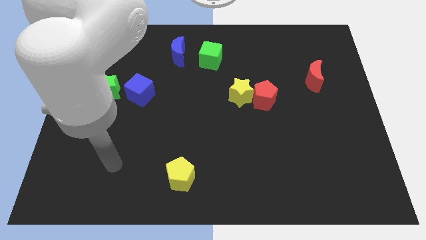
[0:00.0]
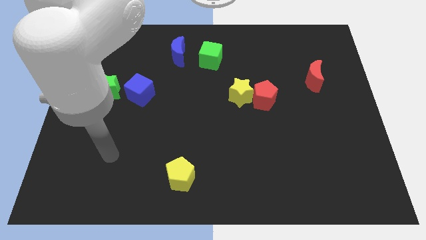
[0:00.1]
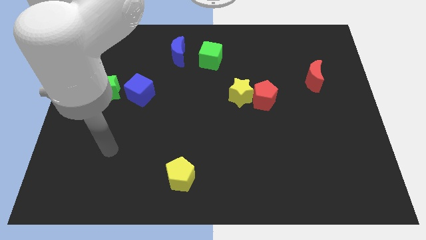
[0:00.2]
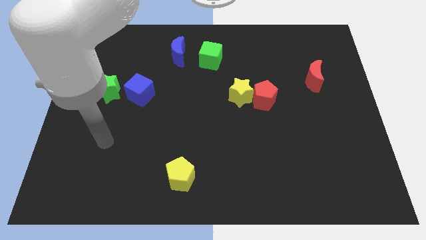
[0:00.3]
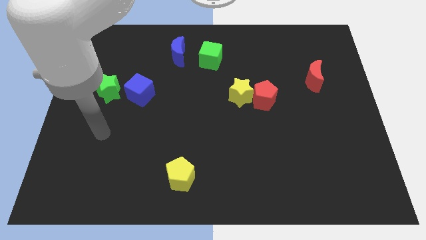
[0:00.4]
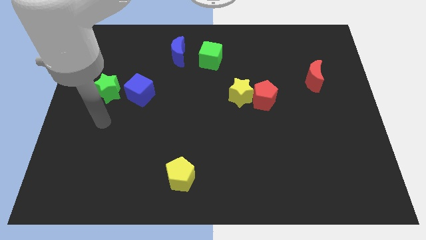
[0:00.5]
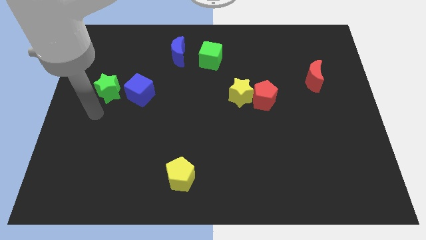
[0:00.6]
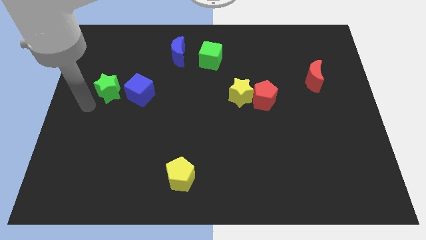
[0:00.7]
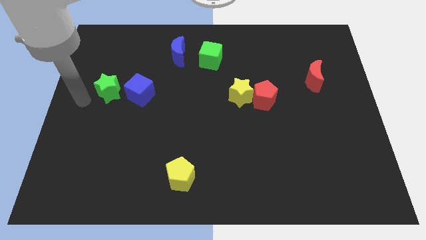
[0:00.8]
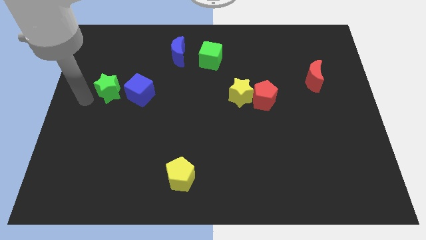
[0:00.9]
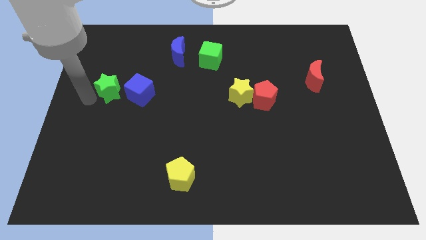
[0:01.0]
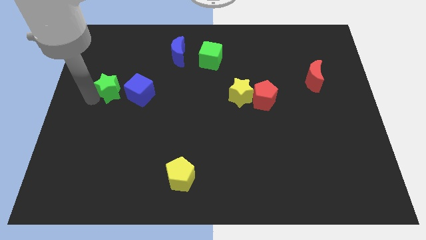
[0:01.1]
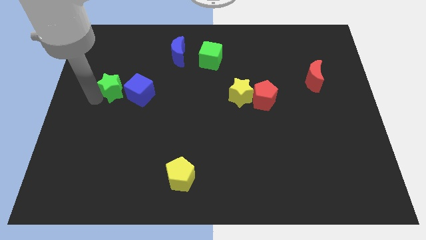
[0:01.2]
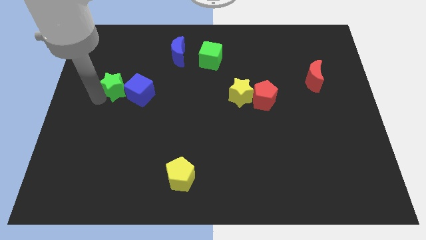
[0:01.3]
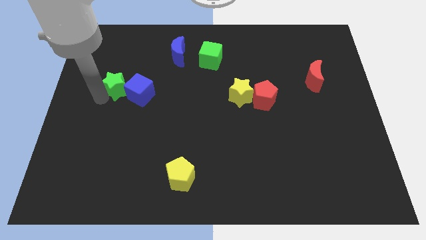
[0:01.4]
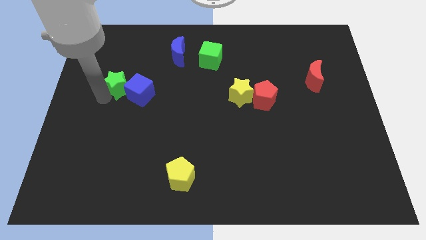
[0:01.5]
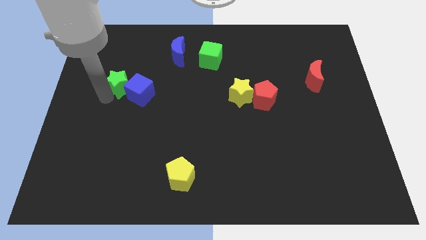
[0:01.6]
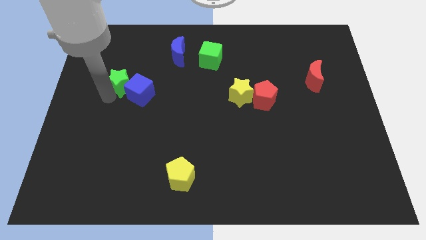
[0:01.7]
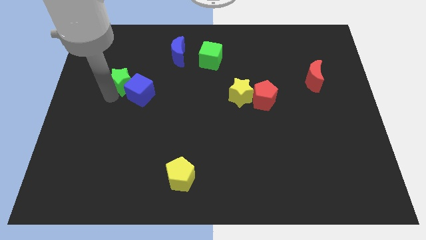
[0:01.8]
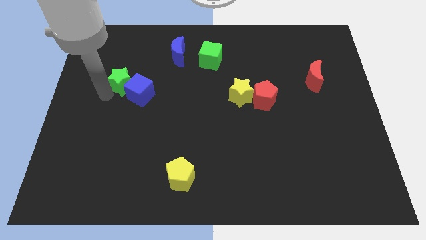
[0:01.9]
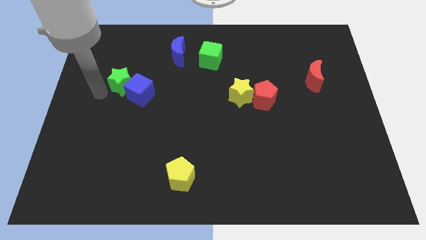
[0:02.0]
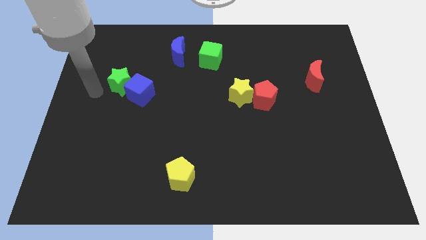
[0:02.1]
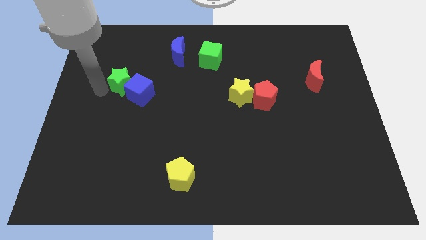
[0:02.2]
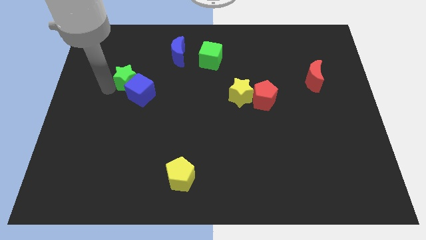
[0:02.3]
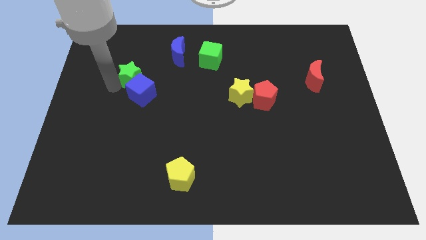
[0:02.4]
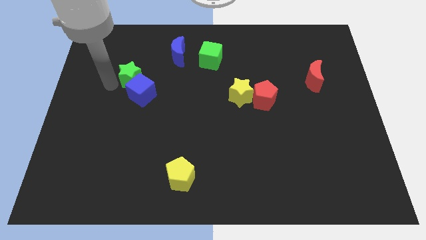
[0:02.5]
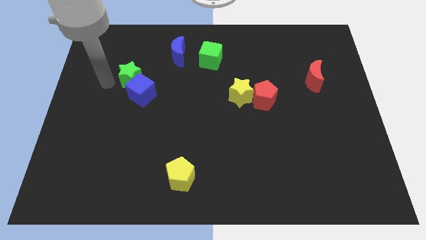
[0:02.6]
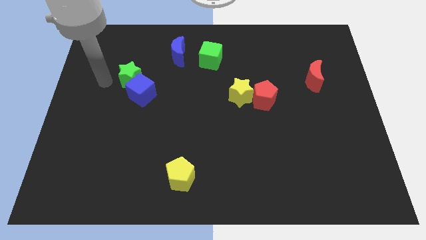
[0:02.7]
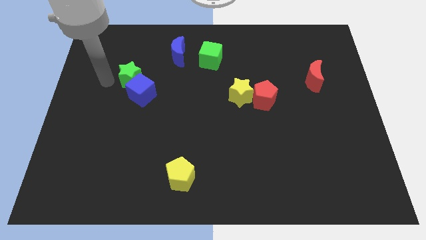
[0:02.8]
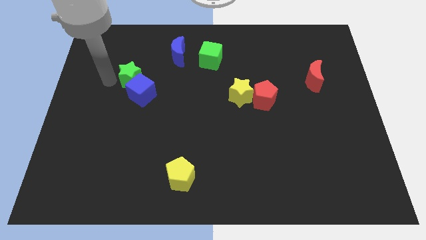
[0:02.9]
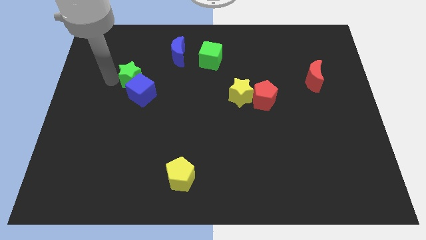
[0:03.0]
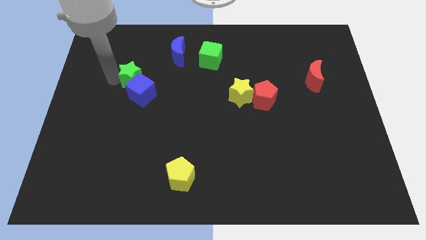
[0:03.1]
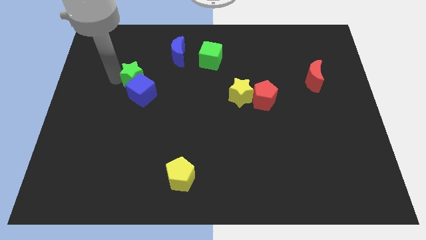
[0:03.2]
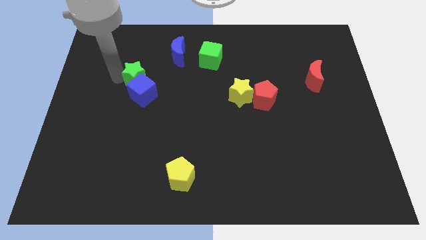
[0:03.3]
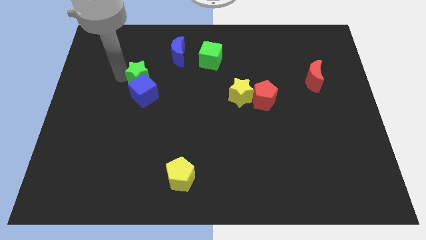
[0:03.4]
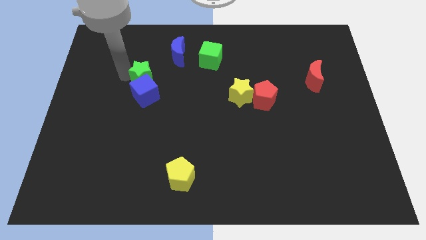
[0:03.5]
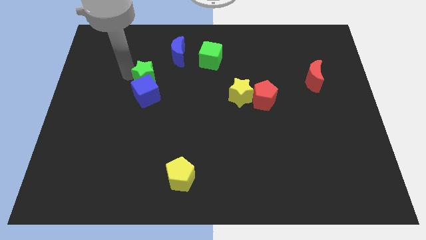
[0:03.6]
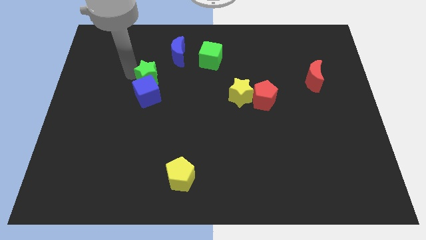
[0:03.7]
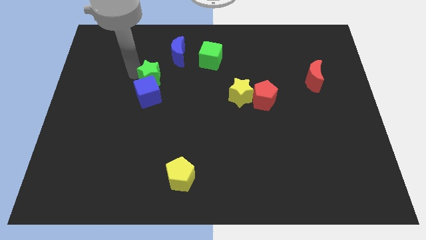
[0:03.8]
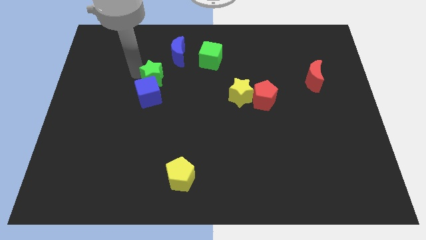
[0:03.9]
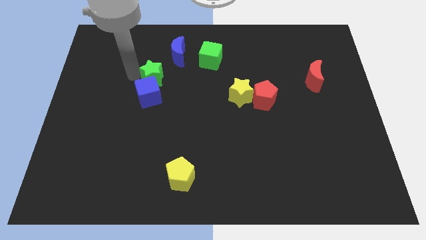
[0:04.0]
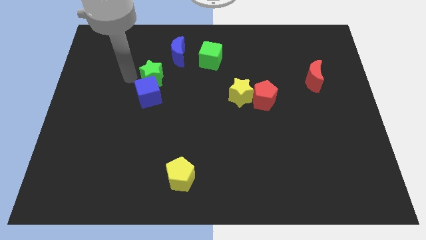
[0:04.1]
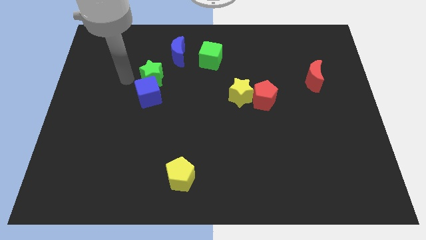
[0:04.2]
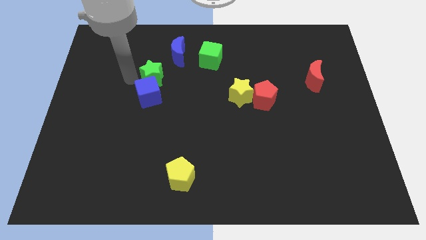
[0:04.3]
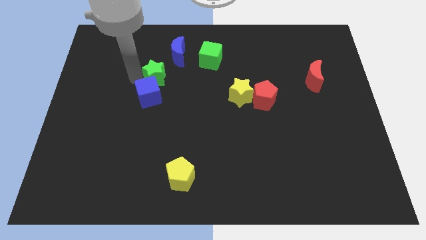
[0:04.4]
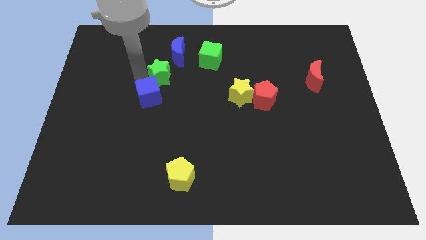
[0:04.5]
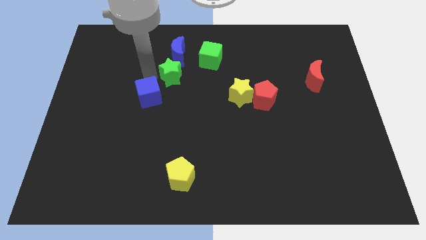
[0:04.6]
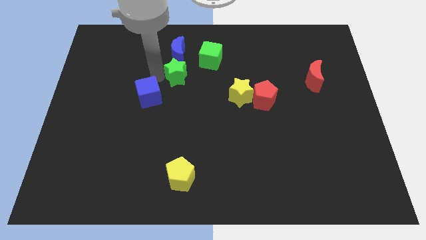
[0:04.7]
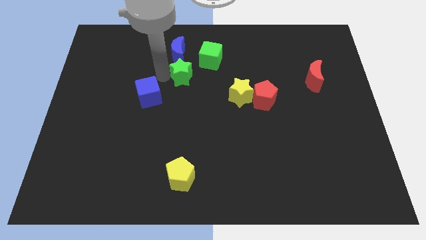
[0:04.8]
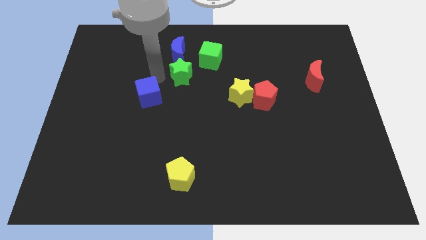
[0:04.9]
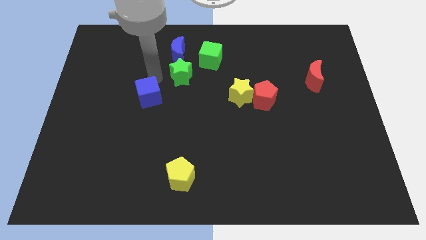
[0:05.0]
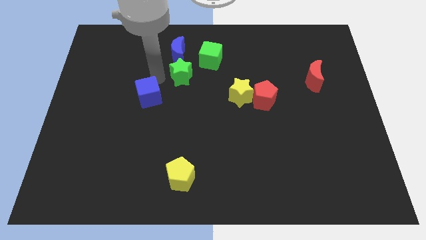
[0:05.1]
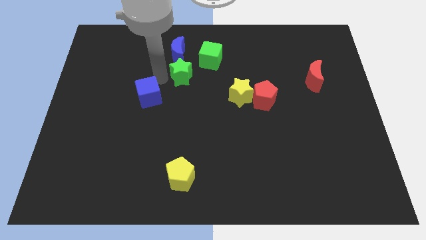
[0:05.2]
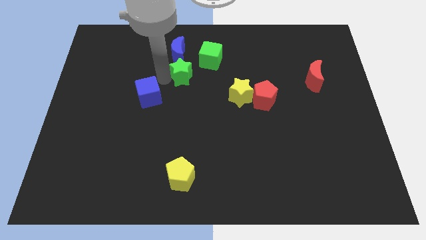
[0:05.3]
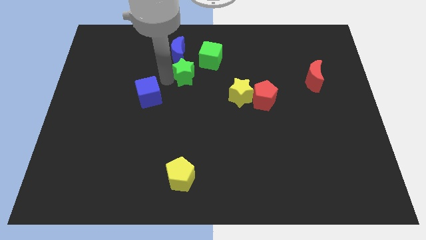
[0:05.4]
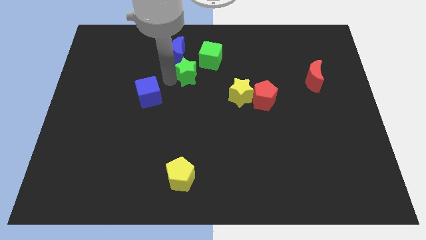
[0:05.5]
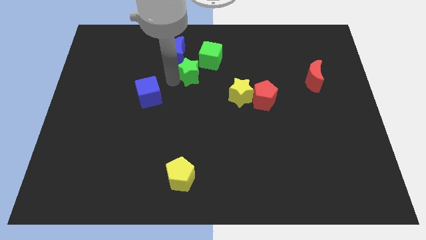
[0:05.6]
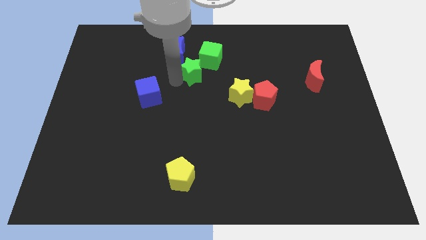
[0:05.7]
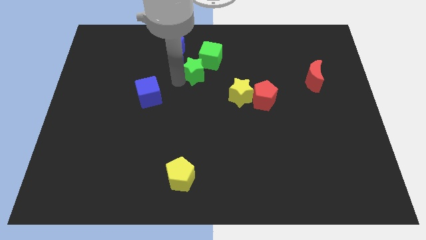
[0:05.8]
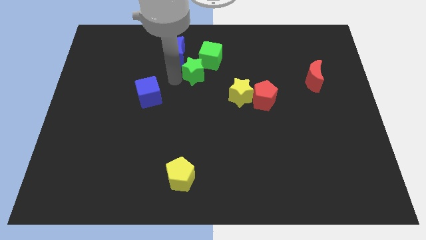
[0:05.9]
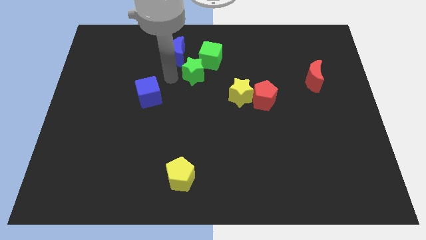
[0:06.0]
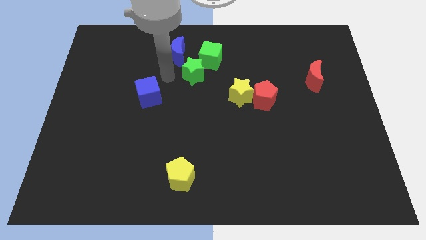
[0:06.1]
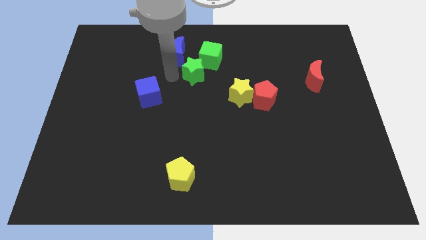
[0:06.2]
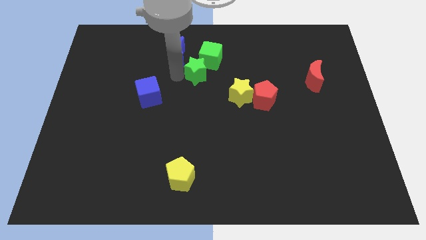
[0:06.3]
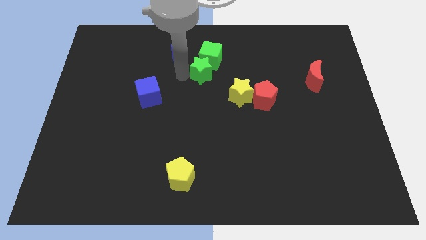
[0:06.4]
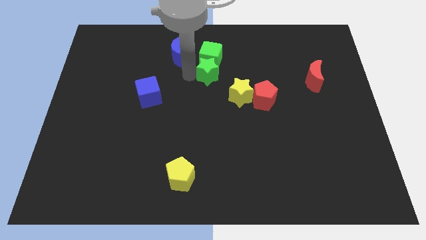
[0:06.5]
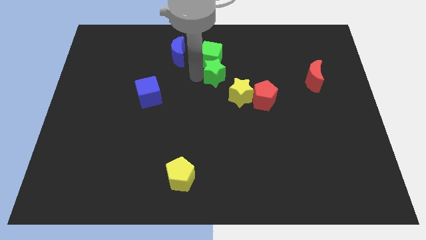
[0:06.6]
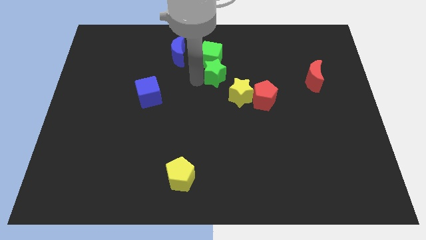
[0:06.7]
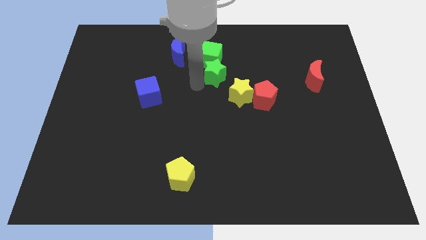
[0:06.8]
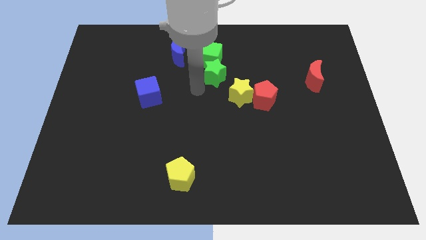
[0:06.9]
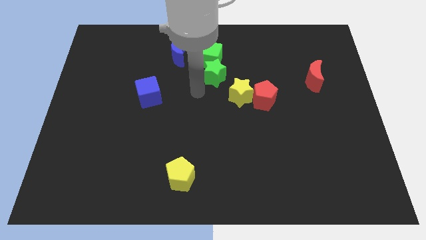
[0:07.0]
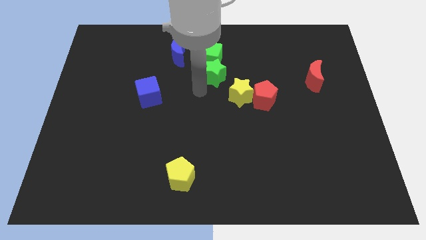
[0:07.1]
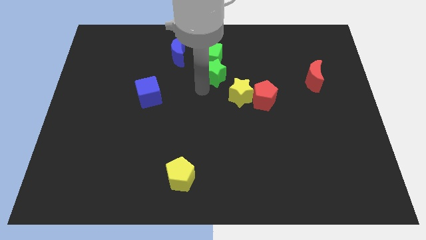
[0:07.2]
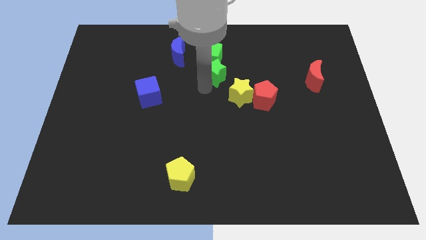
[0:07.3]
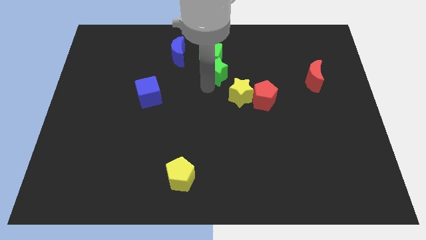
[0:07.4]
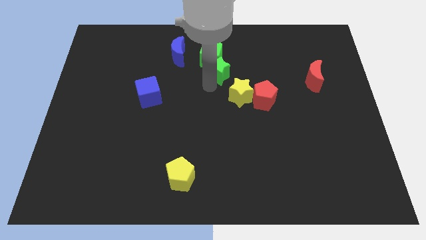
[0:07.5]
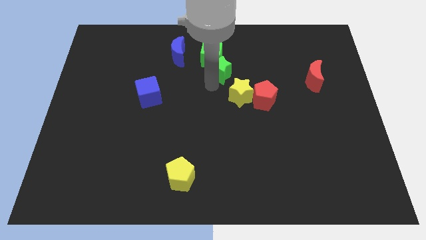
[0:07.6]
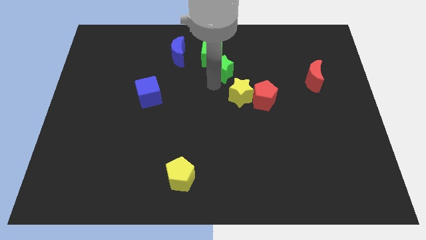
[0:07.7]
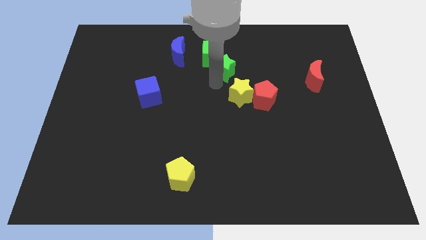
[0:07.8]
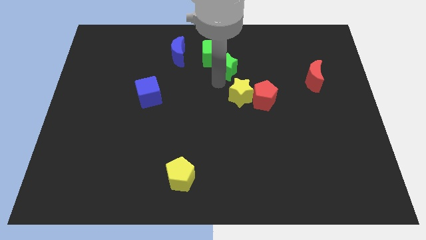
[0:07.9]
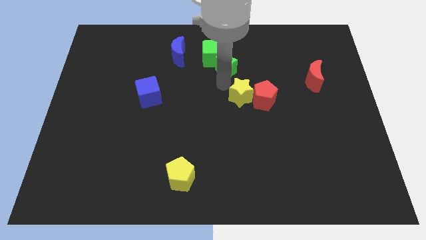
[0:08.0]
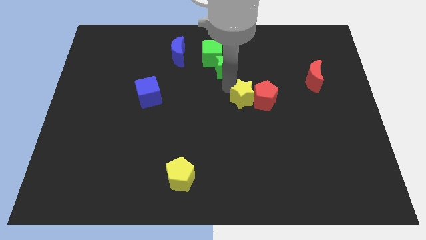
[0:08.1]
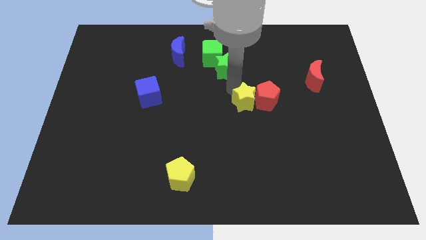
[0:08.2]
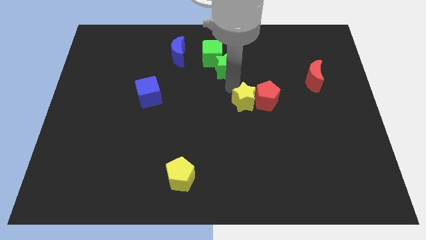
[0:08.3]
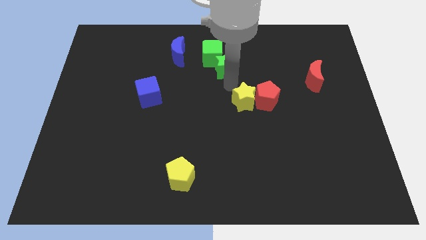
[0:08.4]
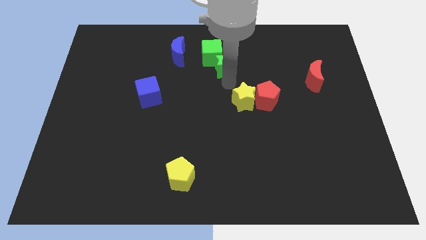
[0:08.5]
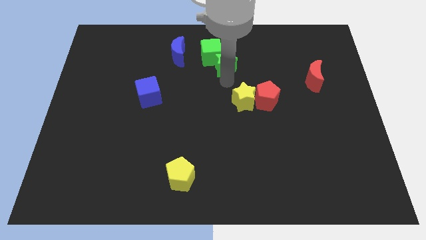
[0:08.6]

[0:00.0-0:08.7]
put the green star just right of the blue moon
